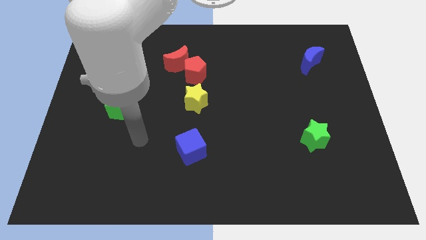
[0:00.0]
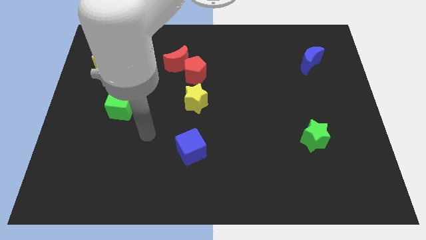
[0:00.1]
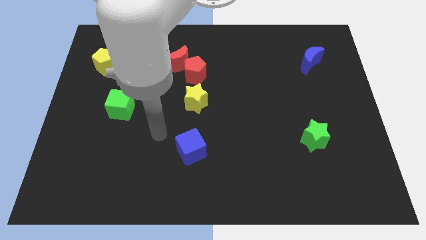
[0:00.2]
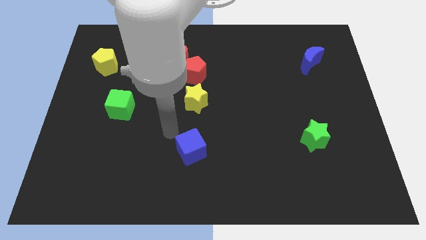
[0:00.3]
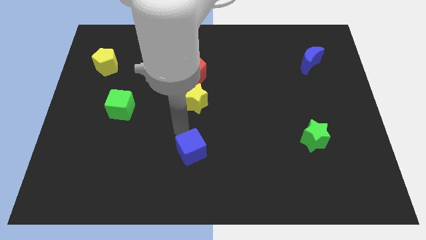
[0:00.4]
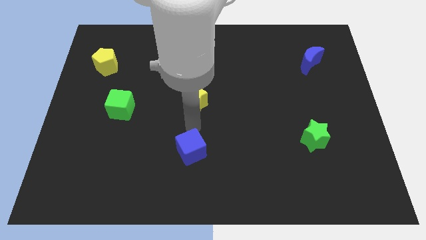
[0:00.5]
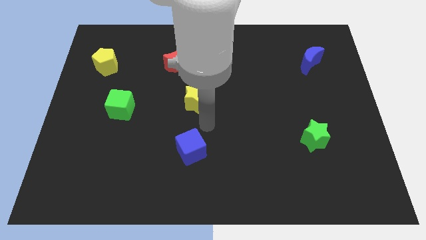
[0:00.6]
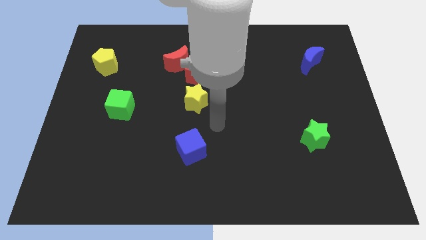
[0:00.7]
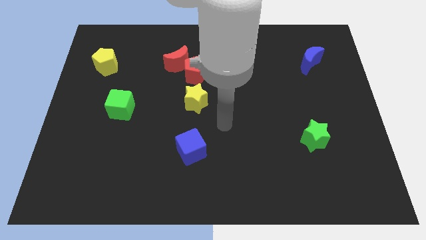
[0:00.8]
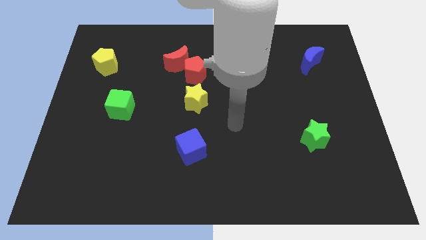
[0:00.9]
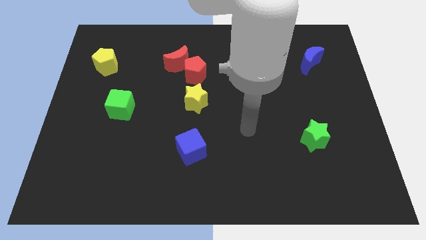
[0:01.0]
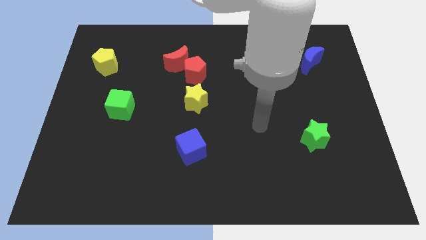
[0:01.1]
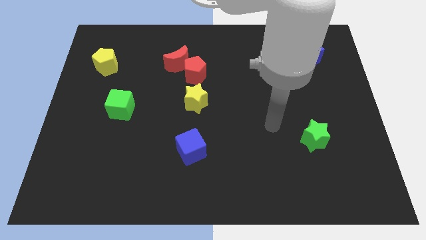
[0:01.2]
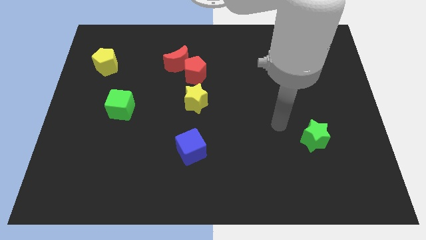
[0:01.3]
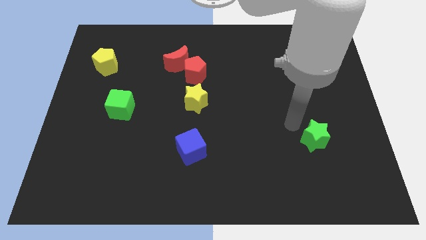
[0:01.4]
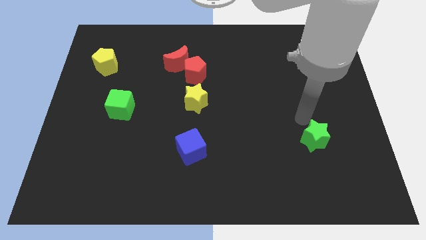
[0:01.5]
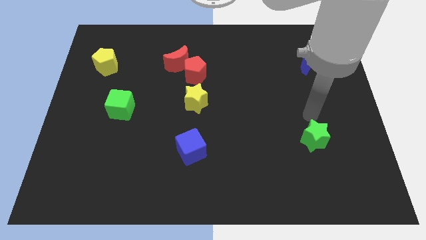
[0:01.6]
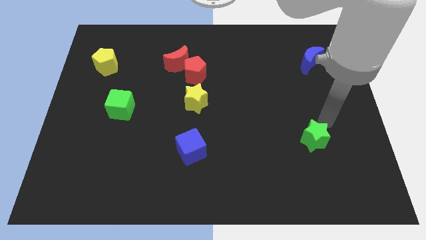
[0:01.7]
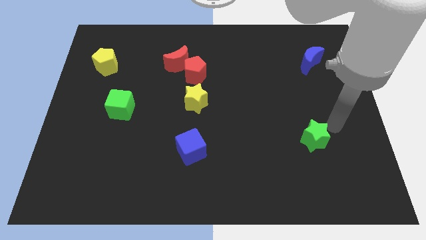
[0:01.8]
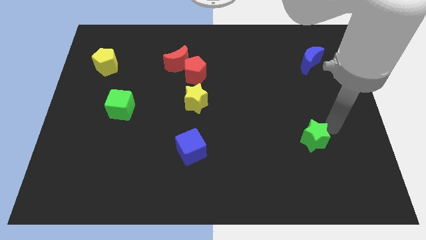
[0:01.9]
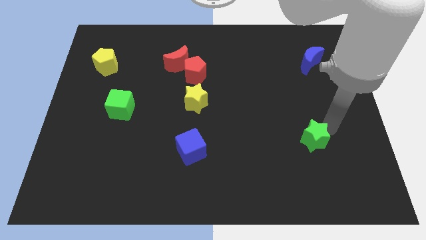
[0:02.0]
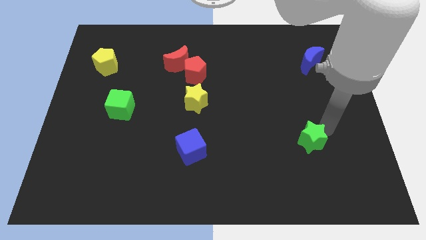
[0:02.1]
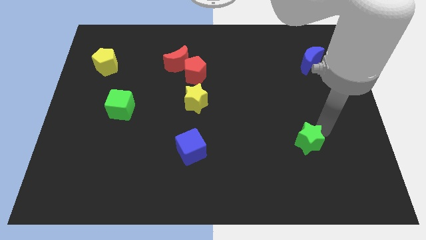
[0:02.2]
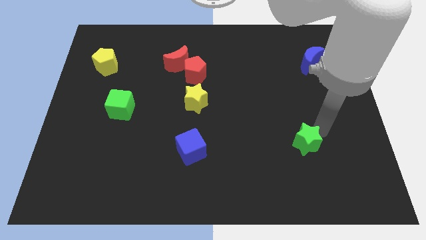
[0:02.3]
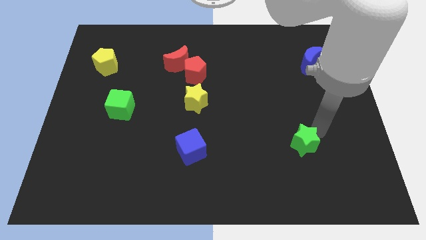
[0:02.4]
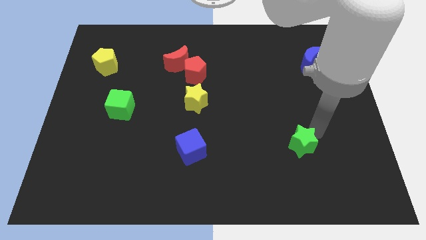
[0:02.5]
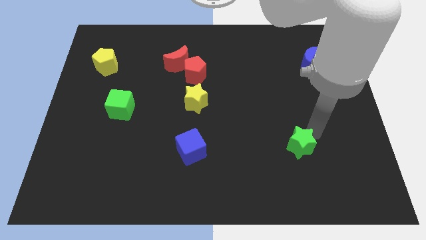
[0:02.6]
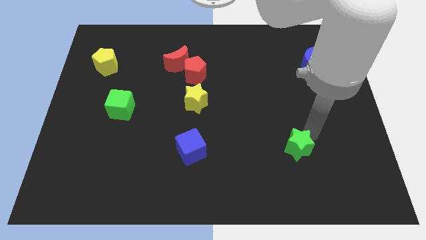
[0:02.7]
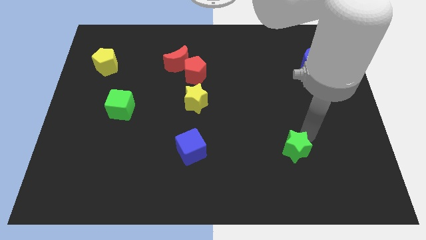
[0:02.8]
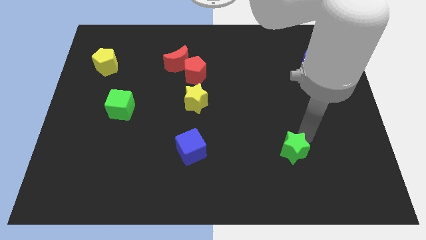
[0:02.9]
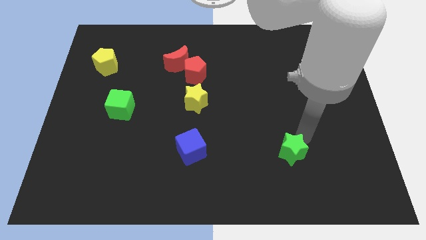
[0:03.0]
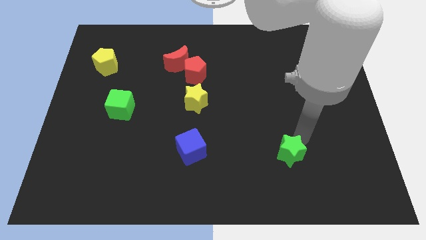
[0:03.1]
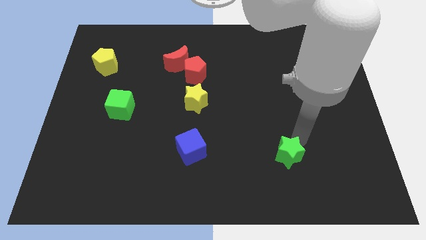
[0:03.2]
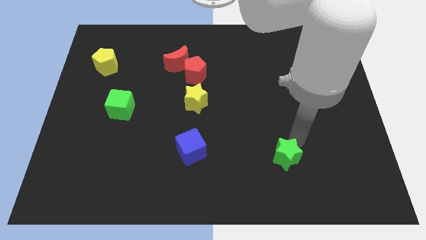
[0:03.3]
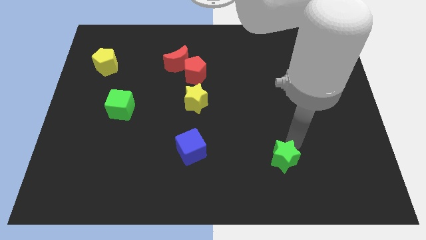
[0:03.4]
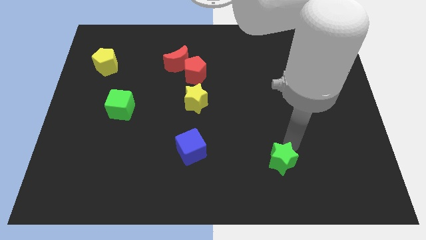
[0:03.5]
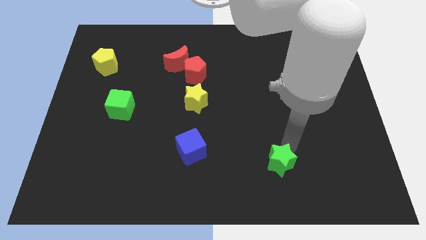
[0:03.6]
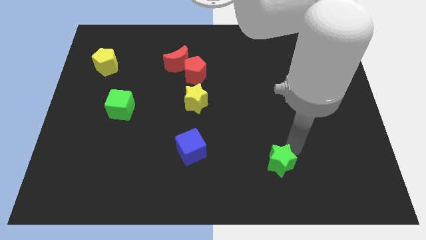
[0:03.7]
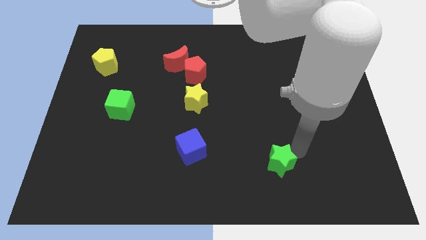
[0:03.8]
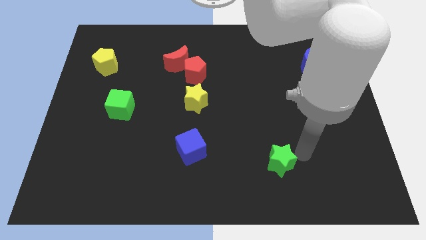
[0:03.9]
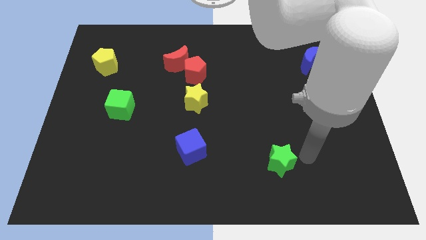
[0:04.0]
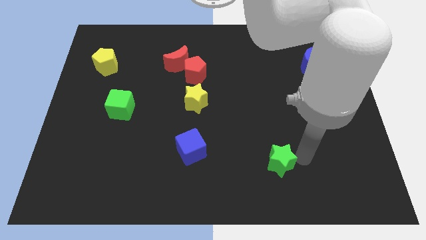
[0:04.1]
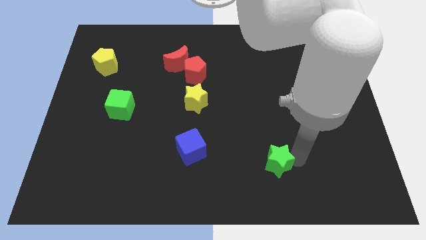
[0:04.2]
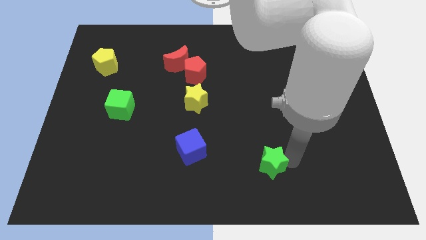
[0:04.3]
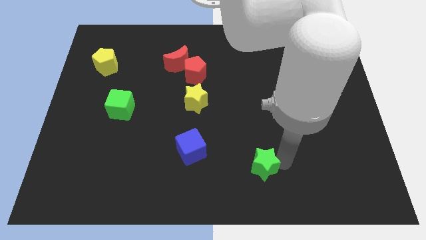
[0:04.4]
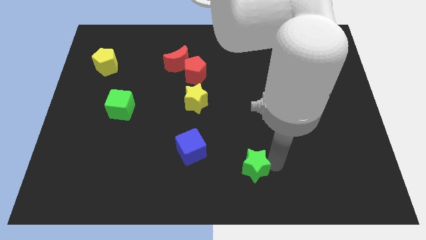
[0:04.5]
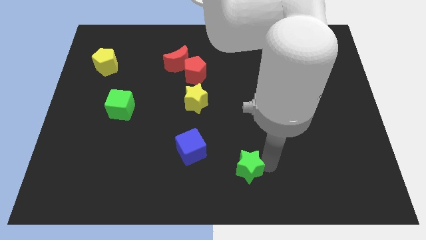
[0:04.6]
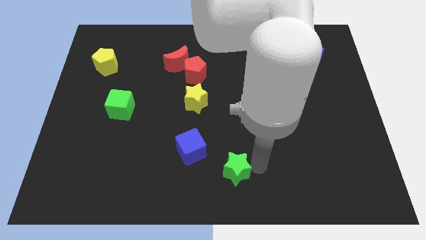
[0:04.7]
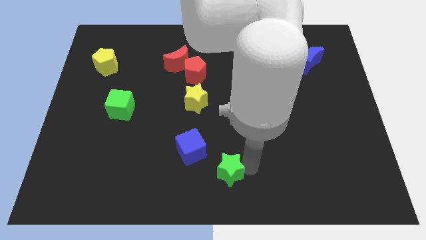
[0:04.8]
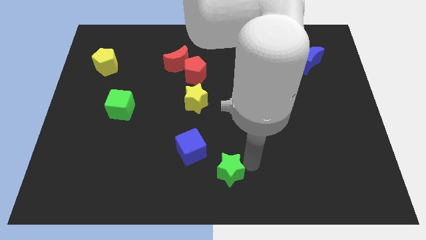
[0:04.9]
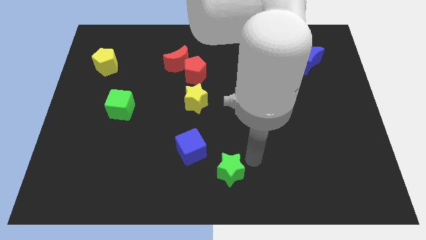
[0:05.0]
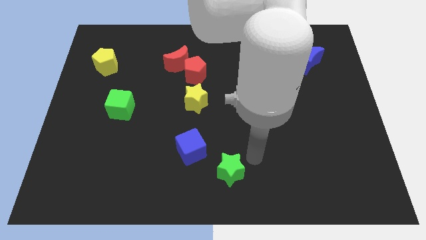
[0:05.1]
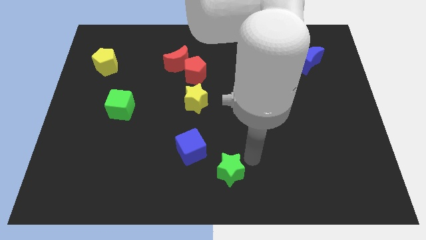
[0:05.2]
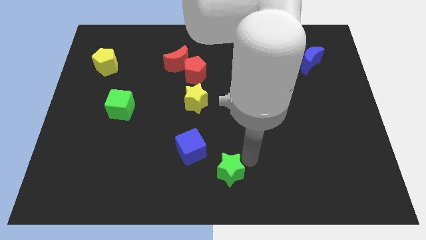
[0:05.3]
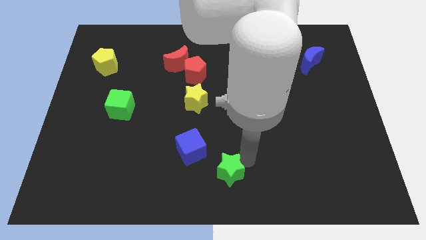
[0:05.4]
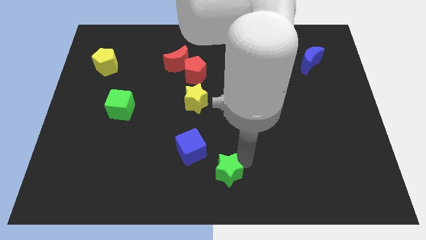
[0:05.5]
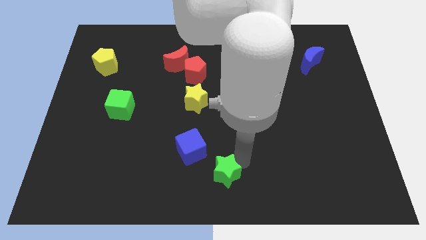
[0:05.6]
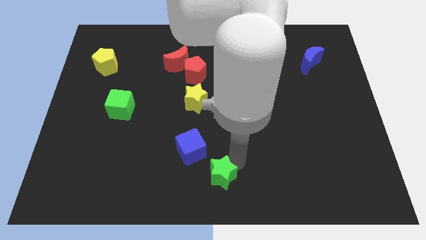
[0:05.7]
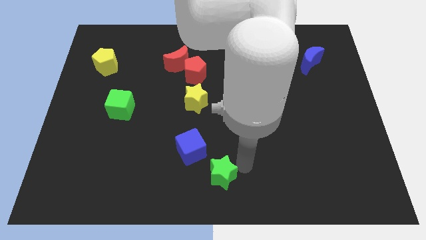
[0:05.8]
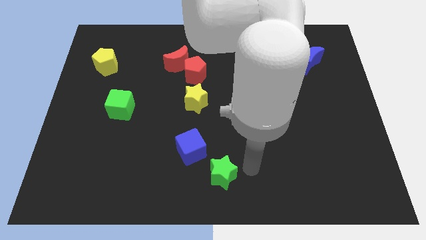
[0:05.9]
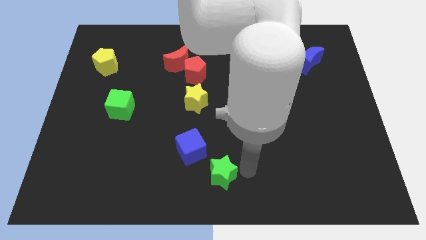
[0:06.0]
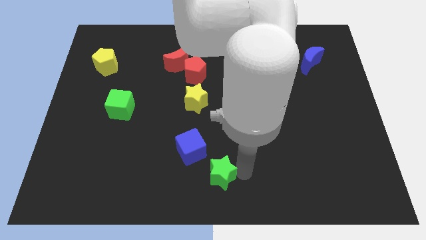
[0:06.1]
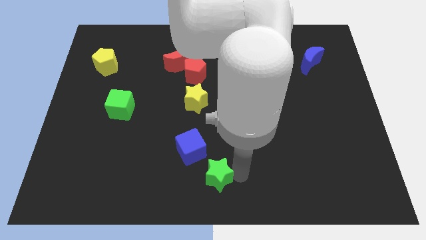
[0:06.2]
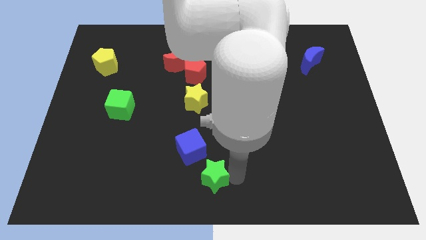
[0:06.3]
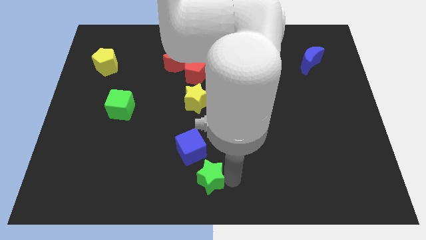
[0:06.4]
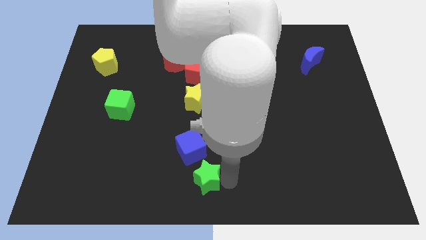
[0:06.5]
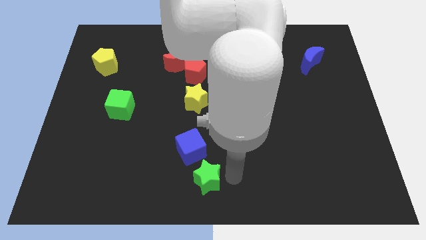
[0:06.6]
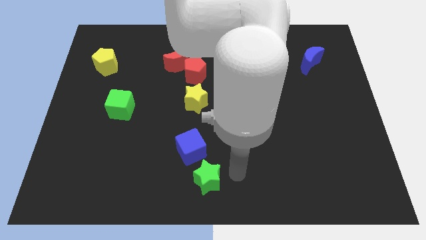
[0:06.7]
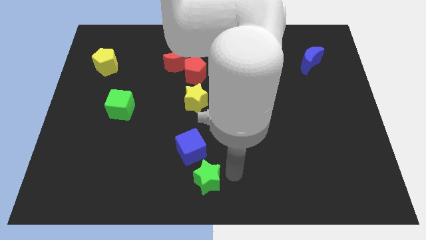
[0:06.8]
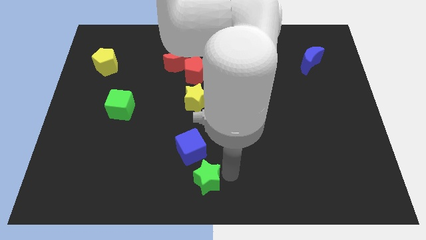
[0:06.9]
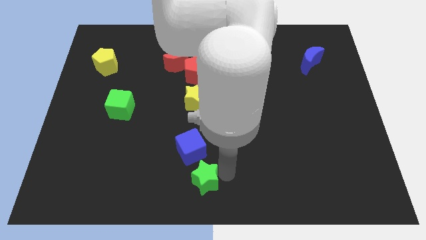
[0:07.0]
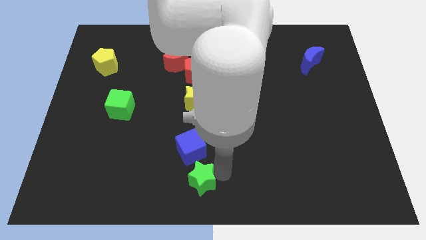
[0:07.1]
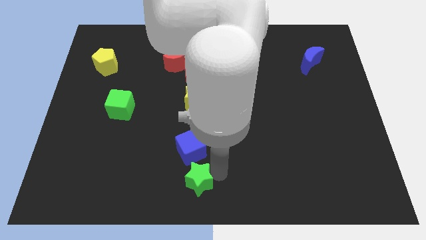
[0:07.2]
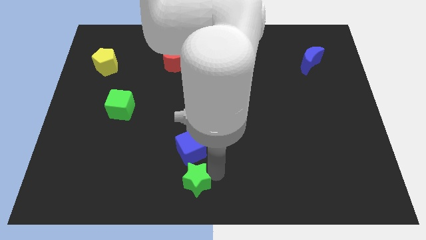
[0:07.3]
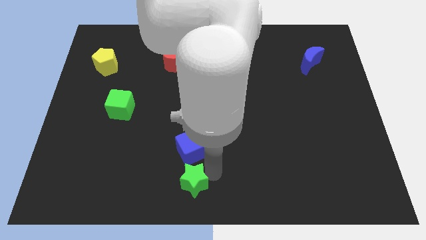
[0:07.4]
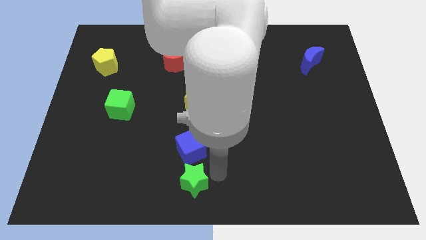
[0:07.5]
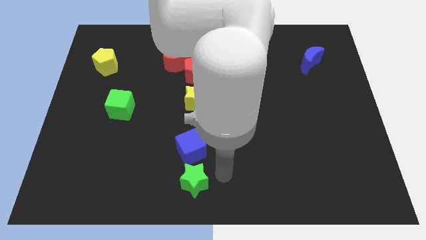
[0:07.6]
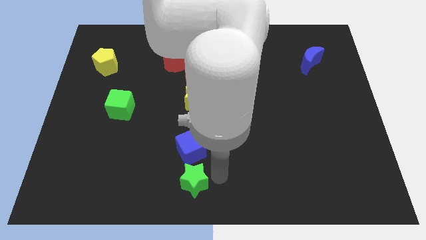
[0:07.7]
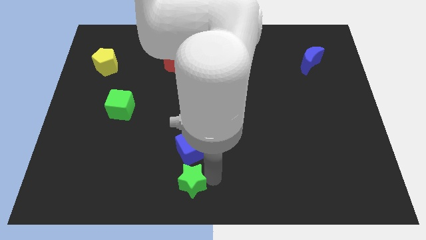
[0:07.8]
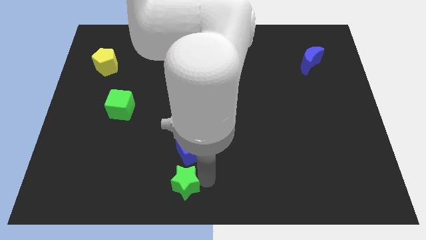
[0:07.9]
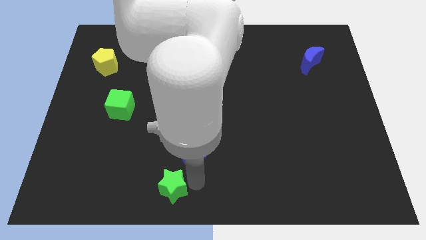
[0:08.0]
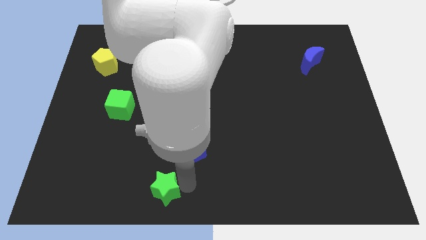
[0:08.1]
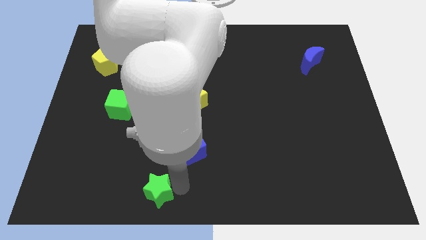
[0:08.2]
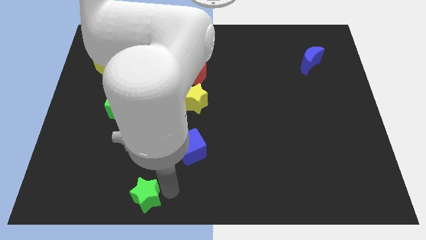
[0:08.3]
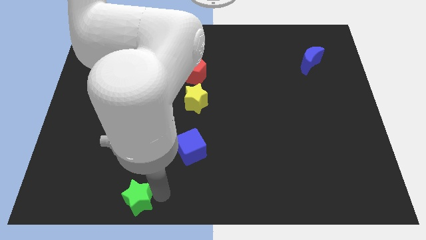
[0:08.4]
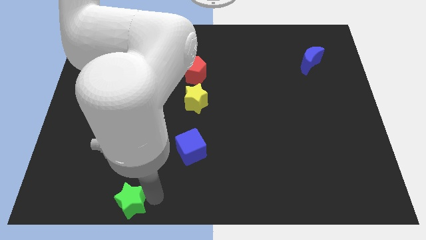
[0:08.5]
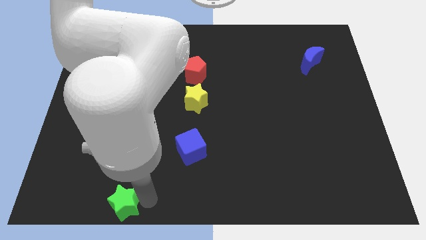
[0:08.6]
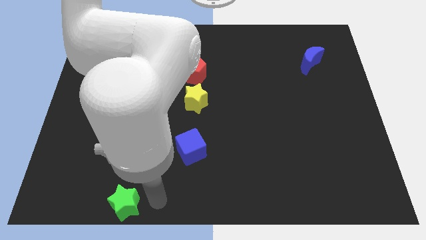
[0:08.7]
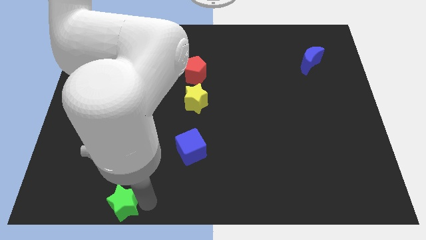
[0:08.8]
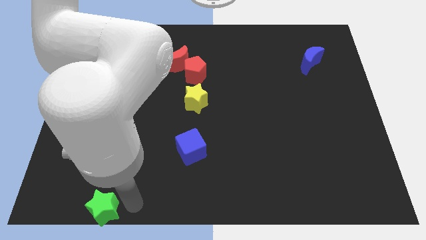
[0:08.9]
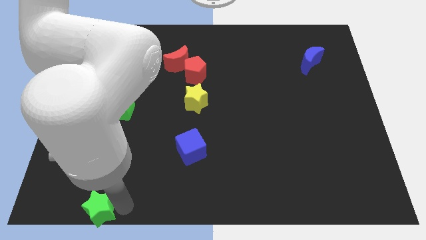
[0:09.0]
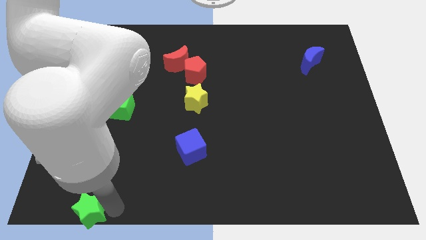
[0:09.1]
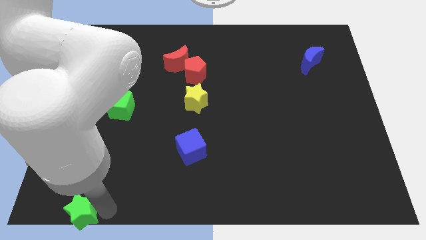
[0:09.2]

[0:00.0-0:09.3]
move the green star to the bottom left
